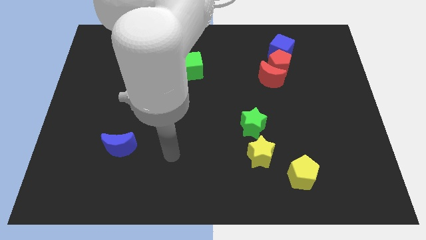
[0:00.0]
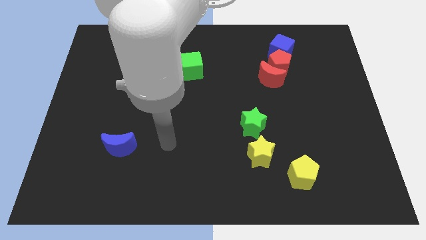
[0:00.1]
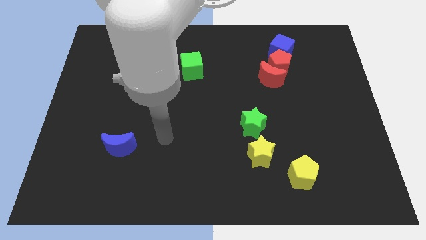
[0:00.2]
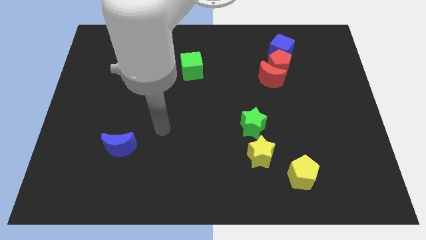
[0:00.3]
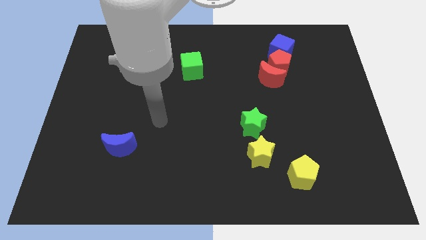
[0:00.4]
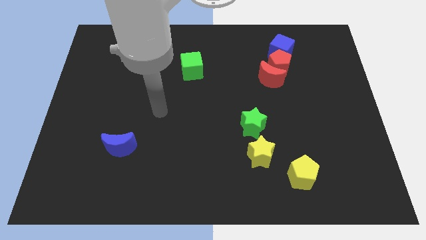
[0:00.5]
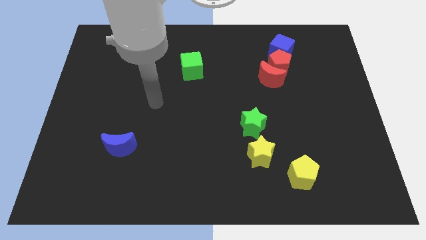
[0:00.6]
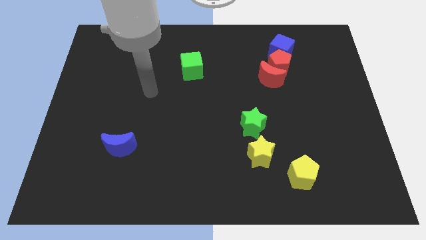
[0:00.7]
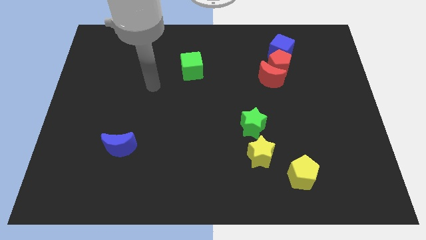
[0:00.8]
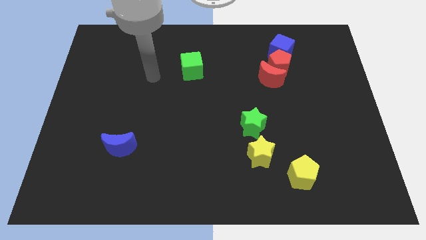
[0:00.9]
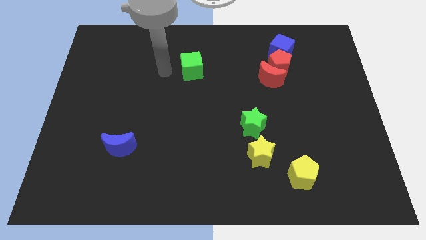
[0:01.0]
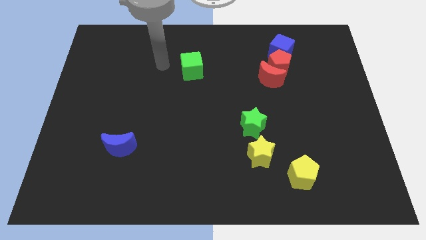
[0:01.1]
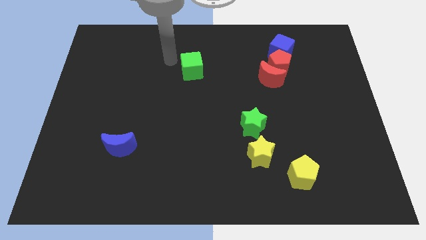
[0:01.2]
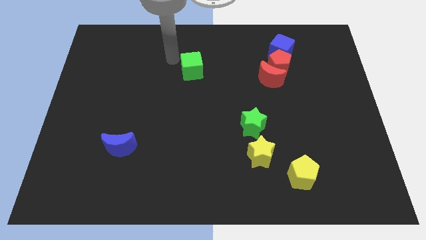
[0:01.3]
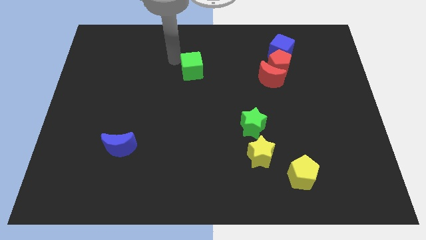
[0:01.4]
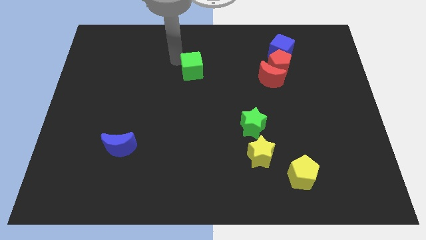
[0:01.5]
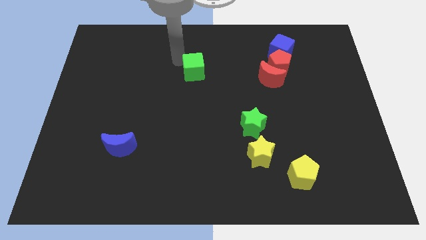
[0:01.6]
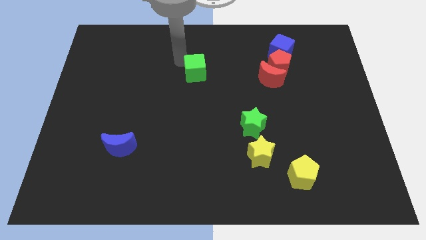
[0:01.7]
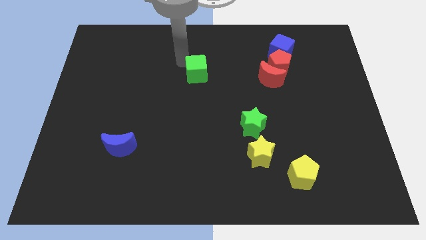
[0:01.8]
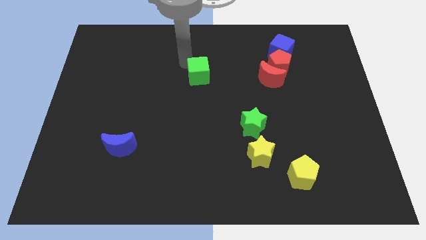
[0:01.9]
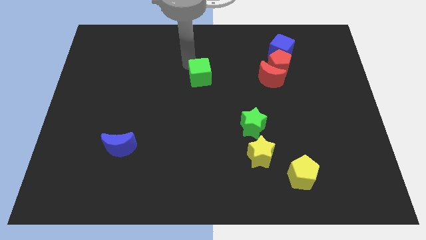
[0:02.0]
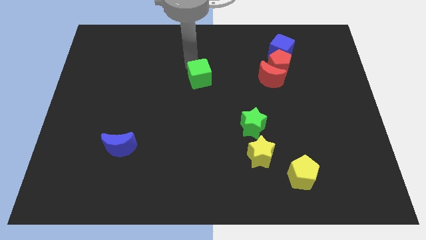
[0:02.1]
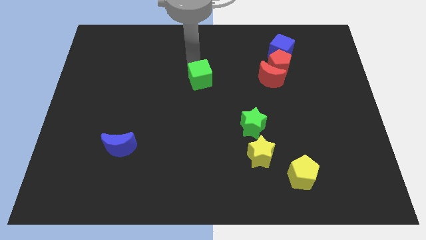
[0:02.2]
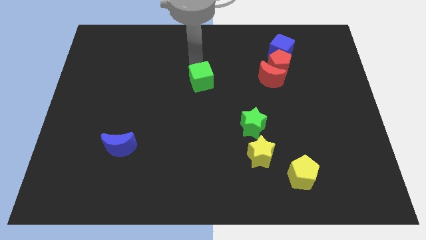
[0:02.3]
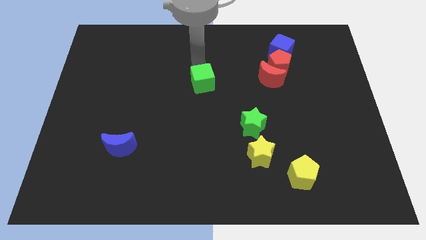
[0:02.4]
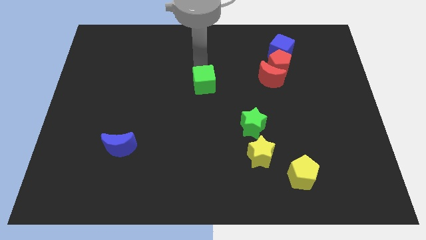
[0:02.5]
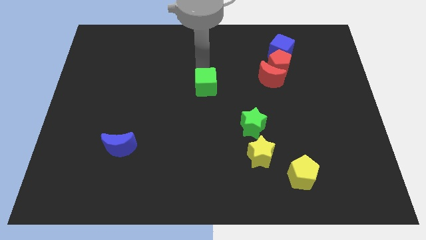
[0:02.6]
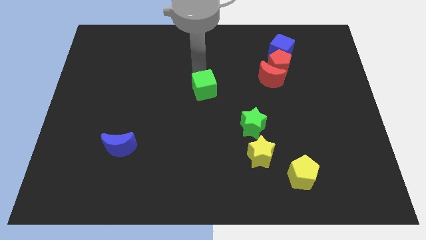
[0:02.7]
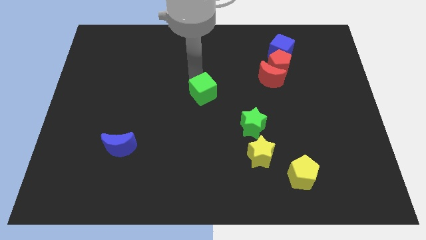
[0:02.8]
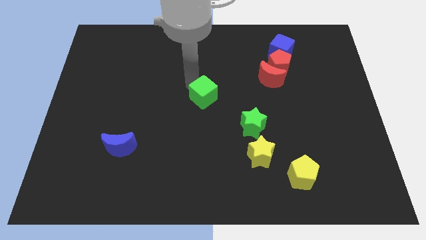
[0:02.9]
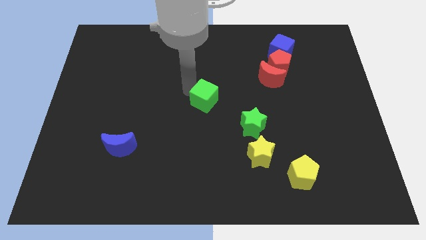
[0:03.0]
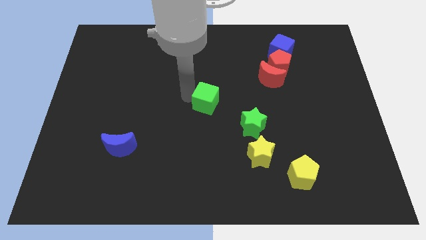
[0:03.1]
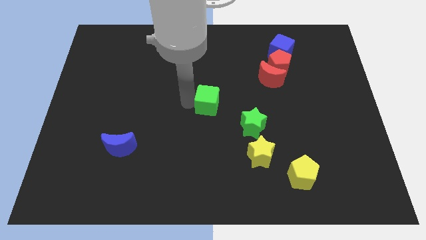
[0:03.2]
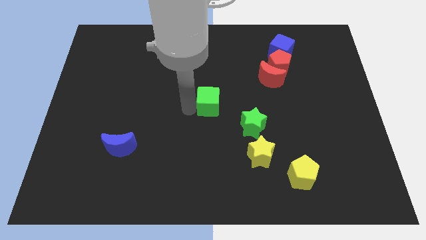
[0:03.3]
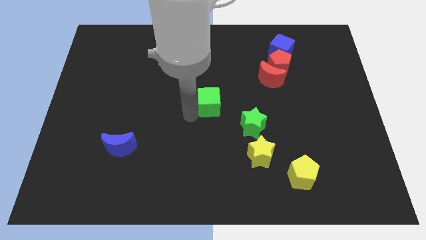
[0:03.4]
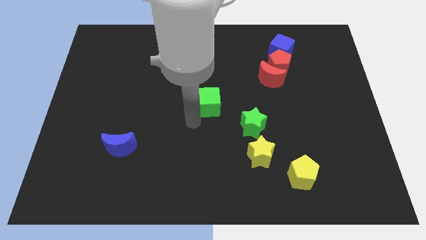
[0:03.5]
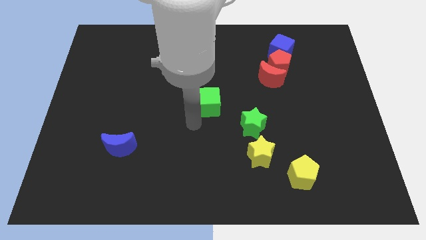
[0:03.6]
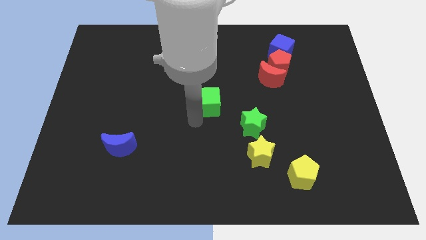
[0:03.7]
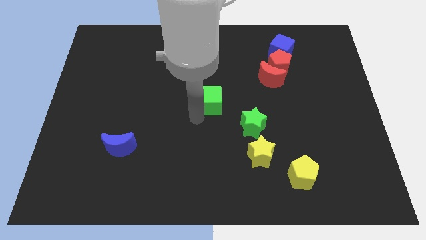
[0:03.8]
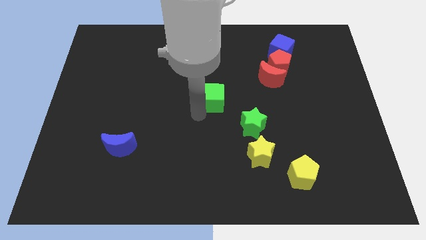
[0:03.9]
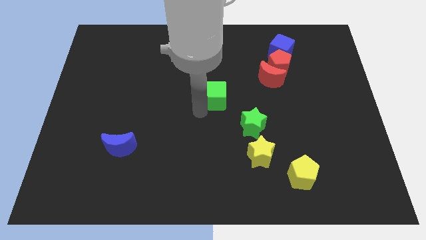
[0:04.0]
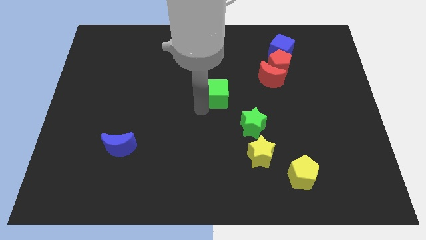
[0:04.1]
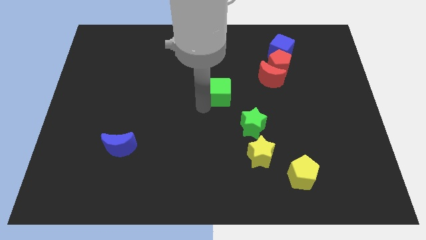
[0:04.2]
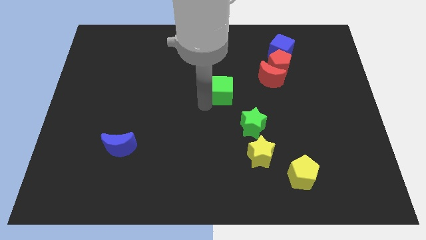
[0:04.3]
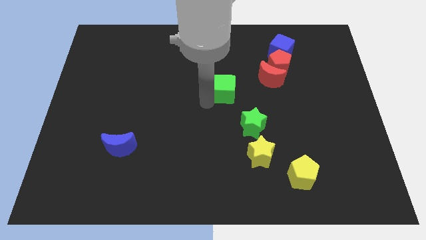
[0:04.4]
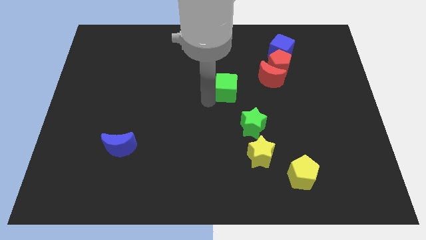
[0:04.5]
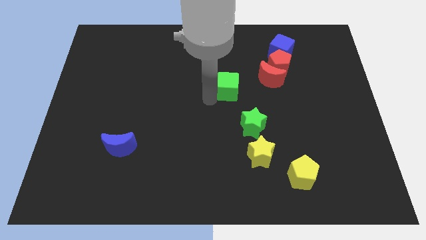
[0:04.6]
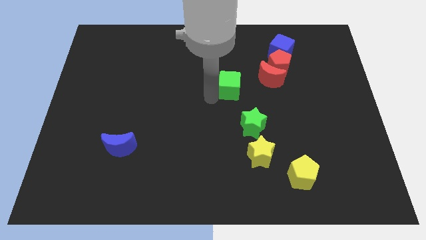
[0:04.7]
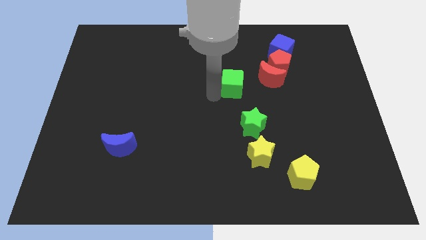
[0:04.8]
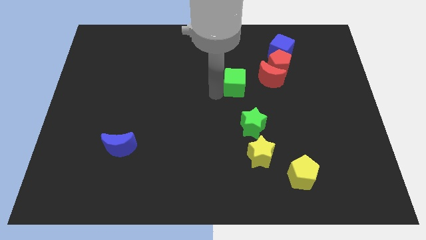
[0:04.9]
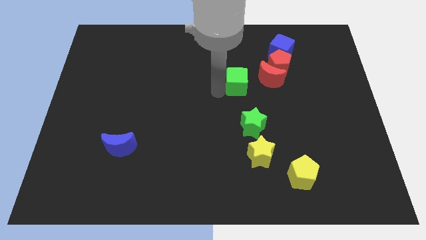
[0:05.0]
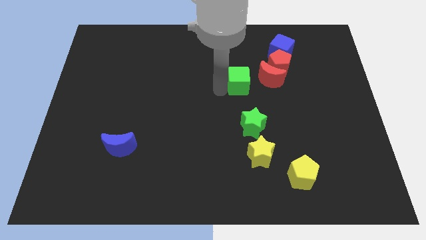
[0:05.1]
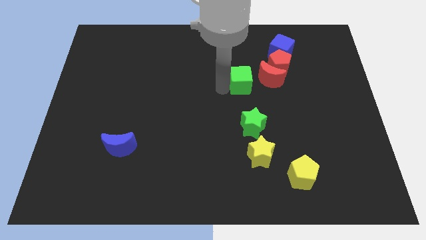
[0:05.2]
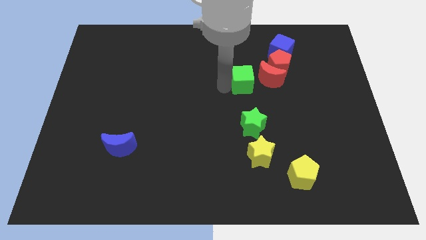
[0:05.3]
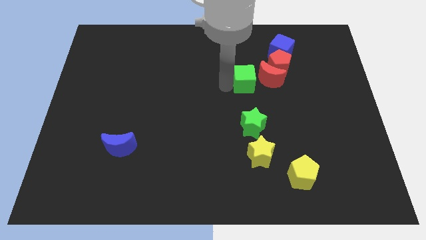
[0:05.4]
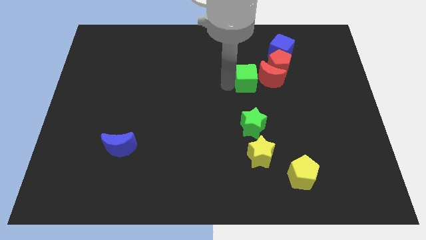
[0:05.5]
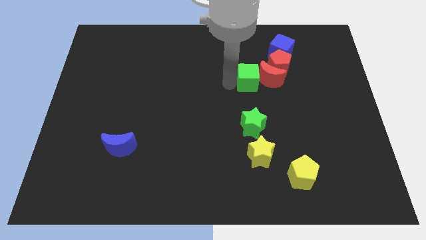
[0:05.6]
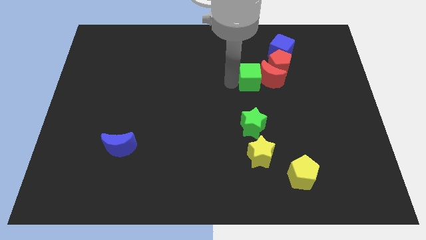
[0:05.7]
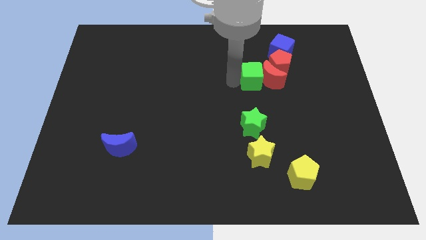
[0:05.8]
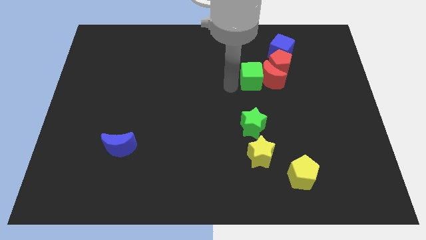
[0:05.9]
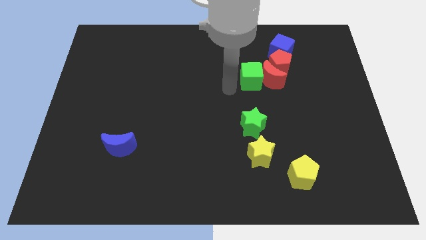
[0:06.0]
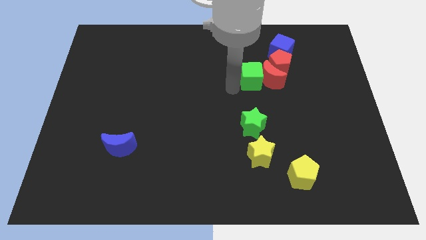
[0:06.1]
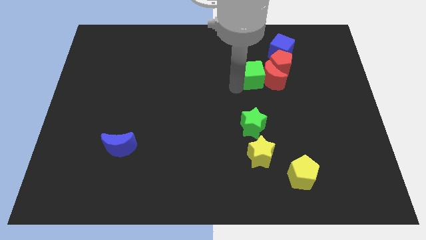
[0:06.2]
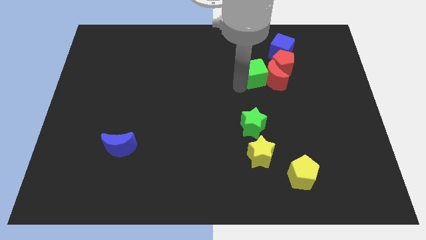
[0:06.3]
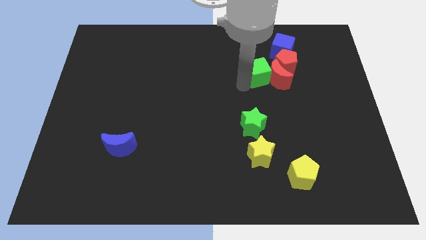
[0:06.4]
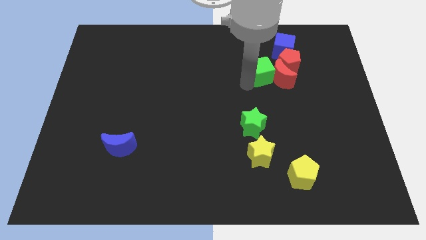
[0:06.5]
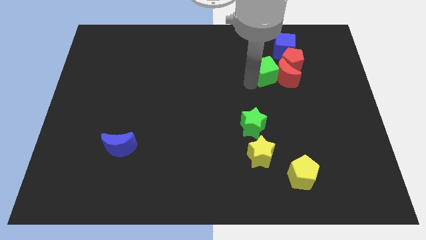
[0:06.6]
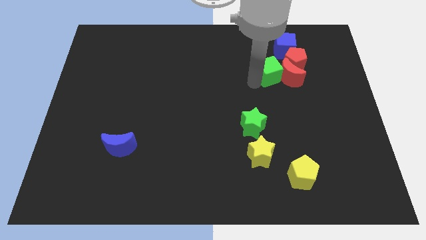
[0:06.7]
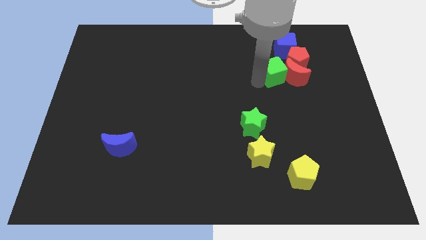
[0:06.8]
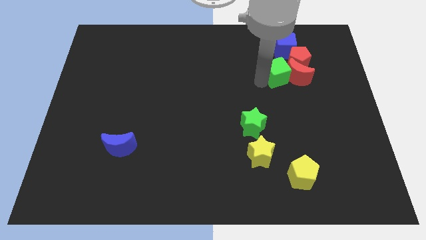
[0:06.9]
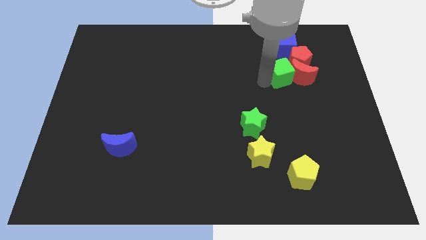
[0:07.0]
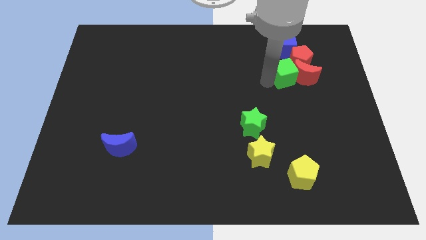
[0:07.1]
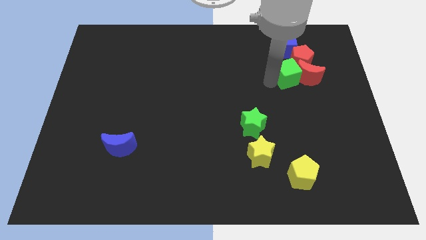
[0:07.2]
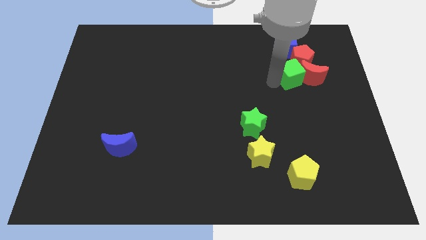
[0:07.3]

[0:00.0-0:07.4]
move the green cube next to the red pentagon

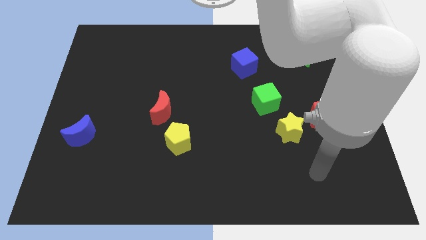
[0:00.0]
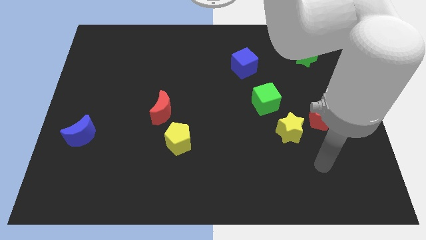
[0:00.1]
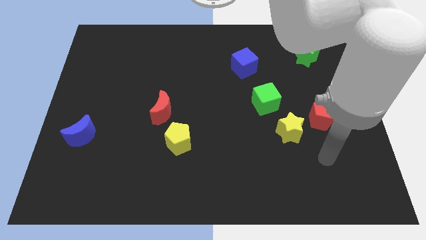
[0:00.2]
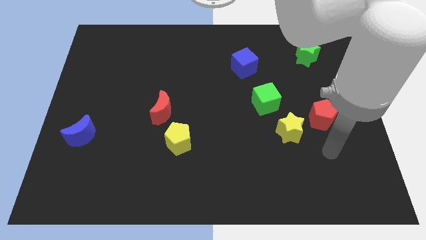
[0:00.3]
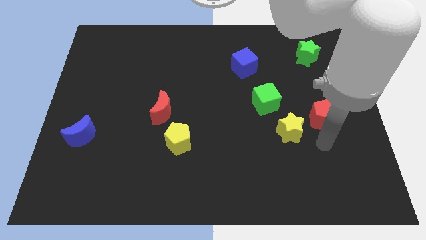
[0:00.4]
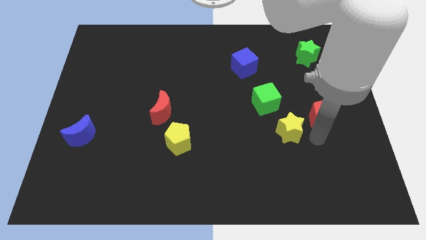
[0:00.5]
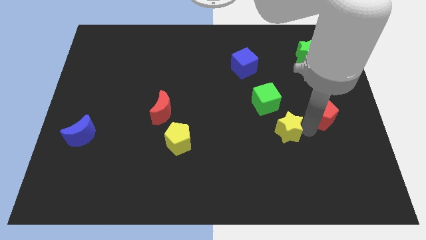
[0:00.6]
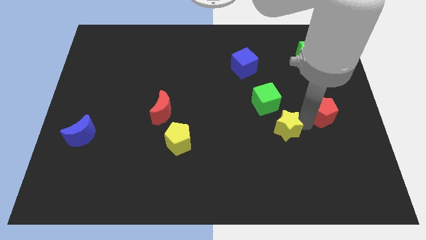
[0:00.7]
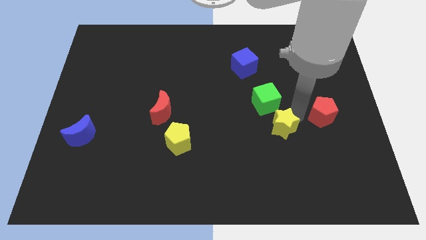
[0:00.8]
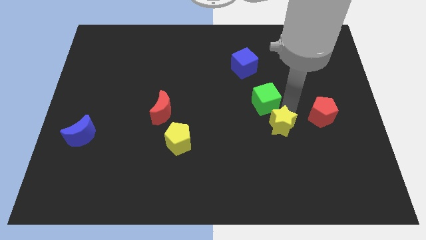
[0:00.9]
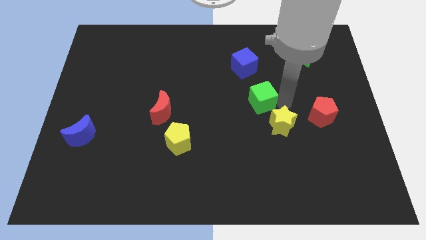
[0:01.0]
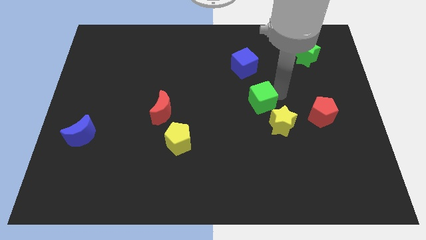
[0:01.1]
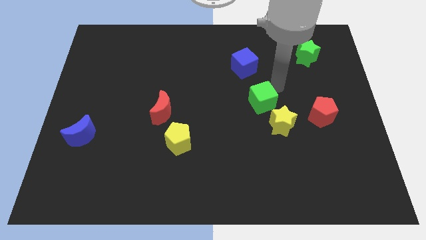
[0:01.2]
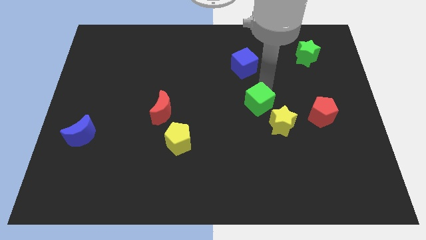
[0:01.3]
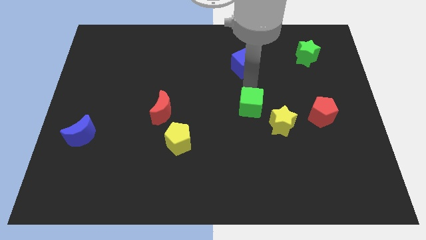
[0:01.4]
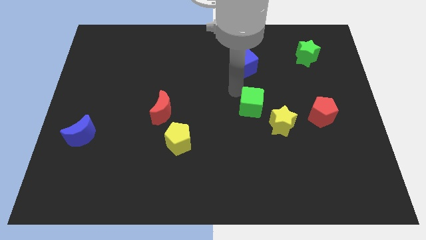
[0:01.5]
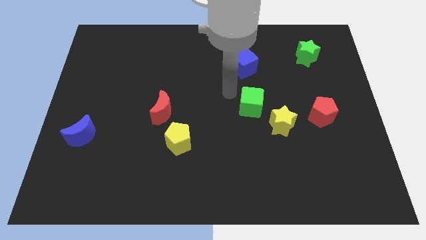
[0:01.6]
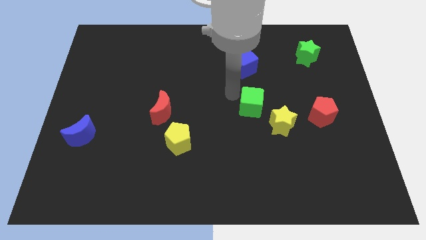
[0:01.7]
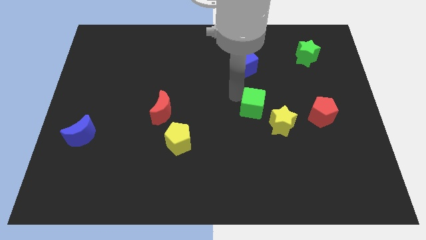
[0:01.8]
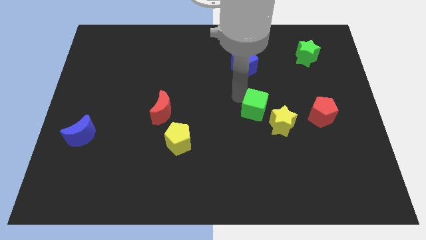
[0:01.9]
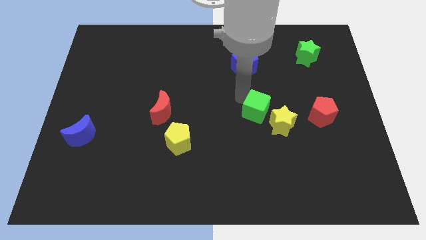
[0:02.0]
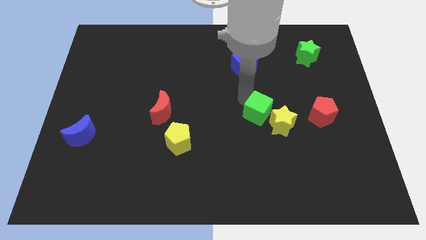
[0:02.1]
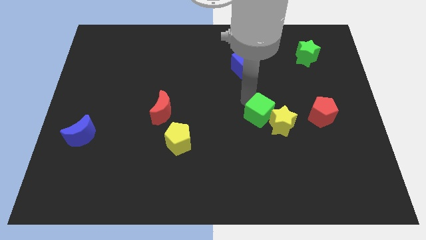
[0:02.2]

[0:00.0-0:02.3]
move the green cube close to the yellow star
